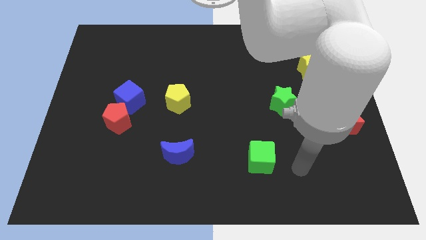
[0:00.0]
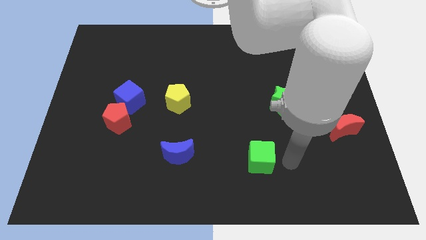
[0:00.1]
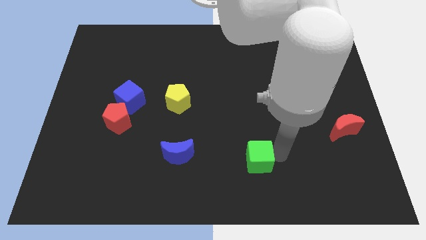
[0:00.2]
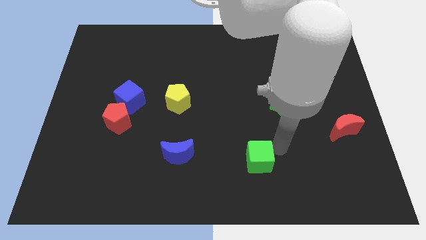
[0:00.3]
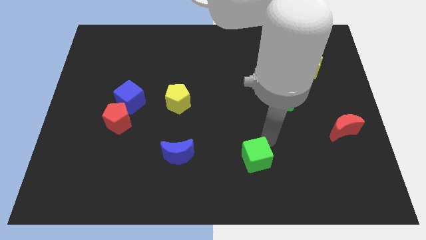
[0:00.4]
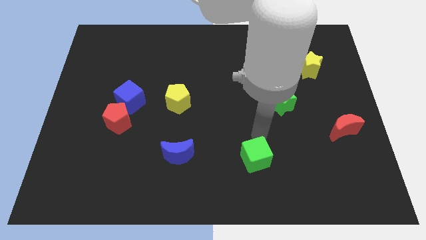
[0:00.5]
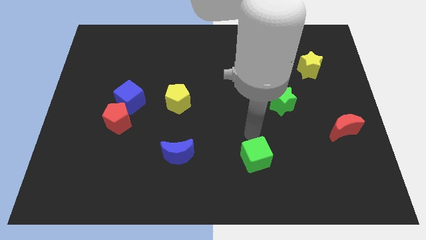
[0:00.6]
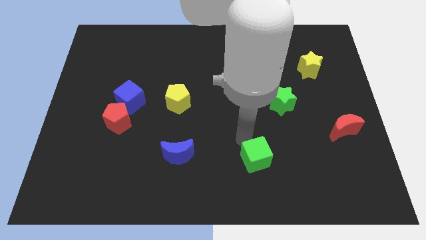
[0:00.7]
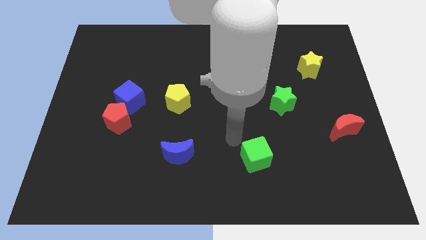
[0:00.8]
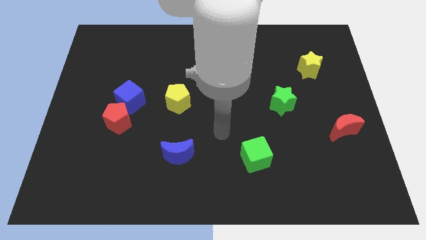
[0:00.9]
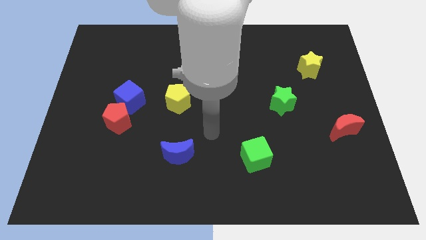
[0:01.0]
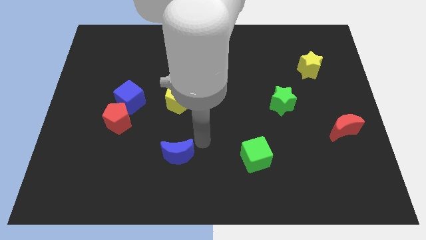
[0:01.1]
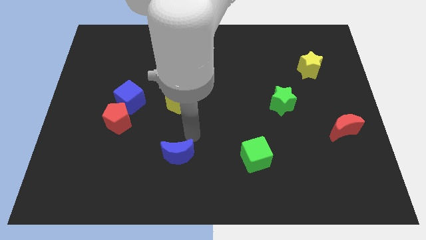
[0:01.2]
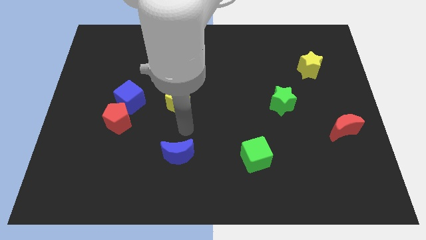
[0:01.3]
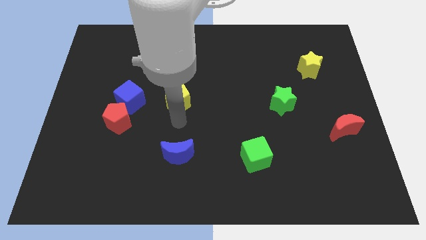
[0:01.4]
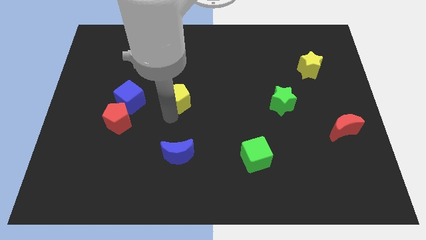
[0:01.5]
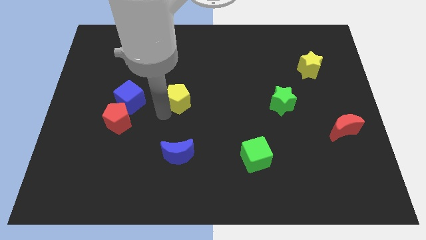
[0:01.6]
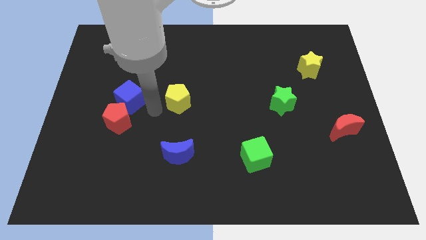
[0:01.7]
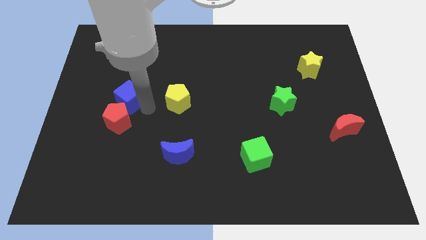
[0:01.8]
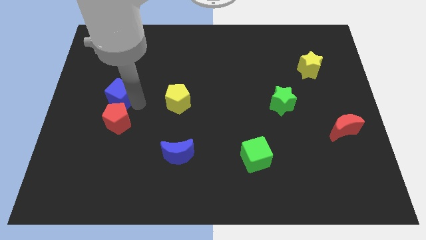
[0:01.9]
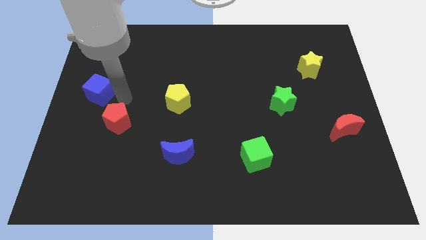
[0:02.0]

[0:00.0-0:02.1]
move the red pentagon away from the blue cube

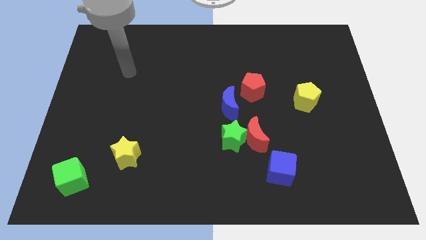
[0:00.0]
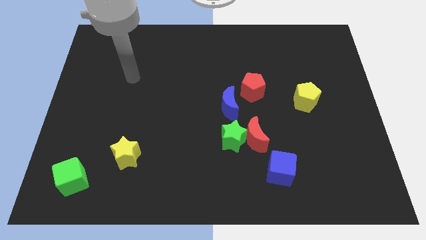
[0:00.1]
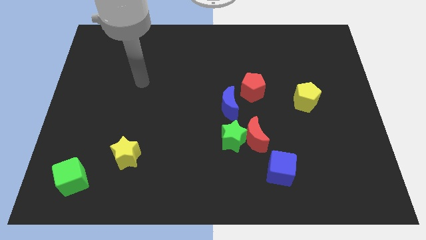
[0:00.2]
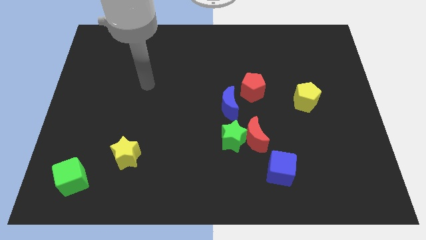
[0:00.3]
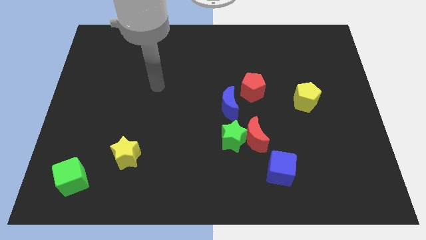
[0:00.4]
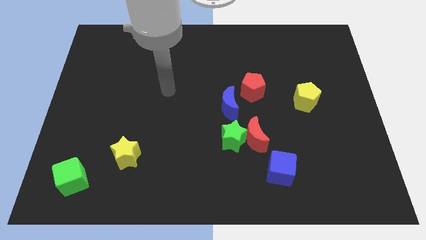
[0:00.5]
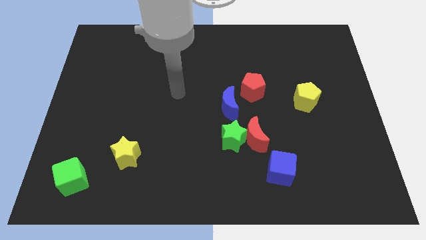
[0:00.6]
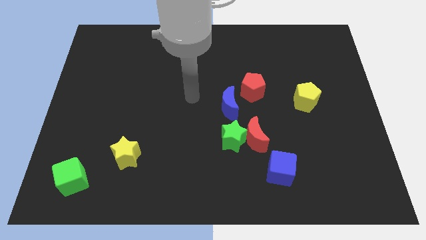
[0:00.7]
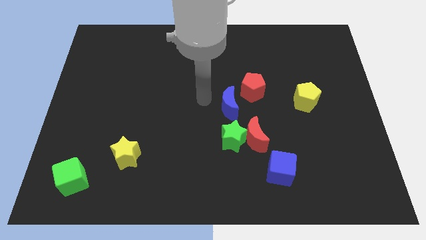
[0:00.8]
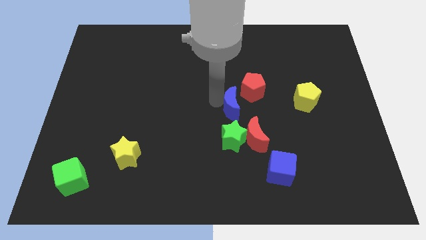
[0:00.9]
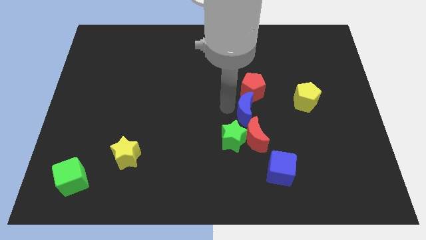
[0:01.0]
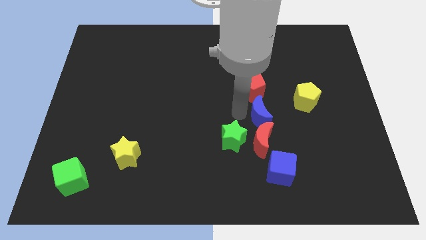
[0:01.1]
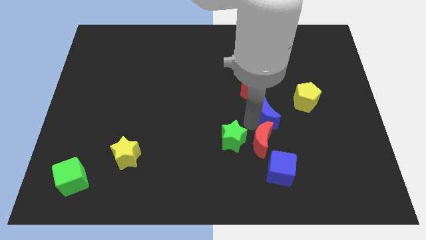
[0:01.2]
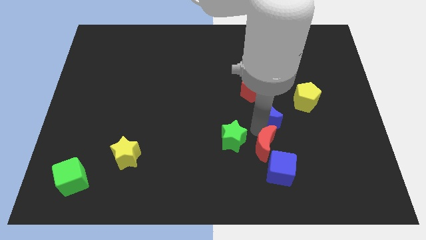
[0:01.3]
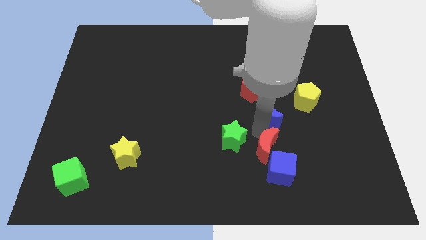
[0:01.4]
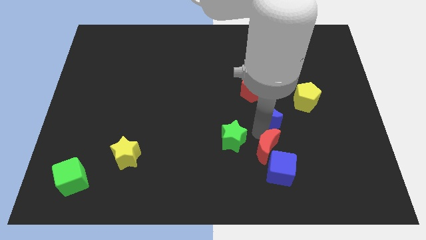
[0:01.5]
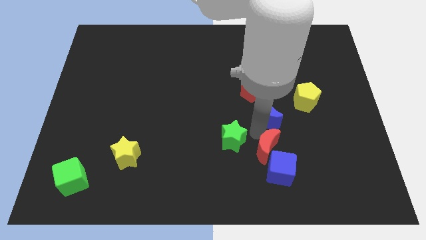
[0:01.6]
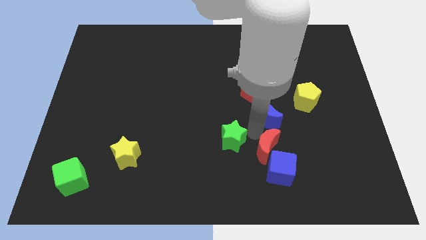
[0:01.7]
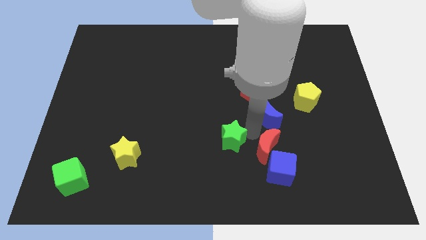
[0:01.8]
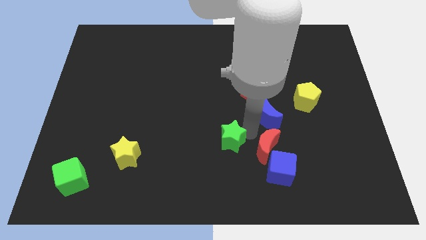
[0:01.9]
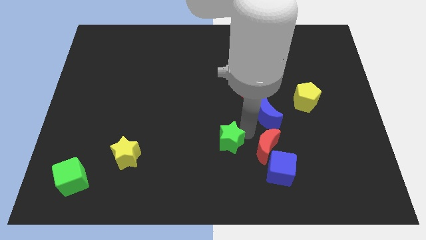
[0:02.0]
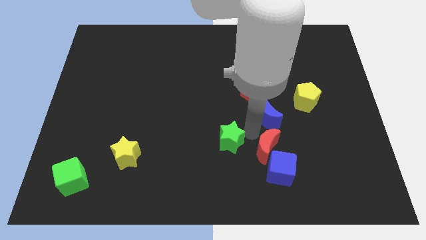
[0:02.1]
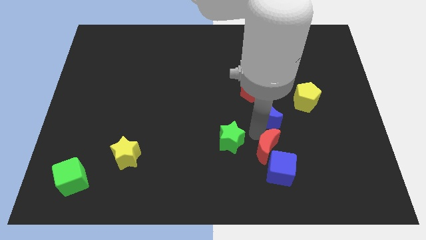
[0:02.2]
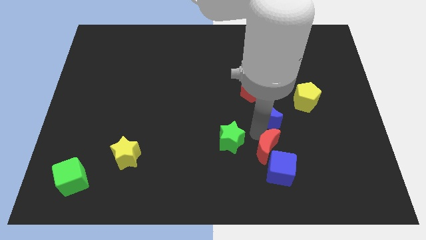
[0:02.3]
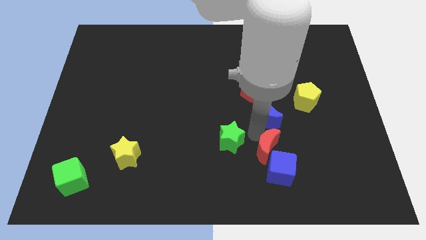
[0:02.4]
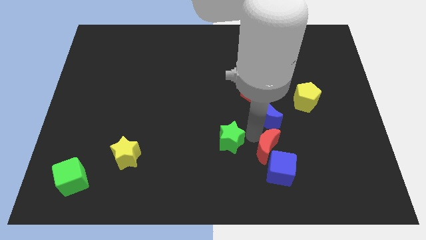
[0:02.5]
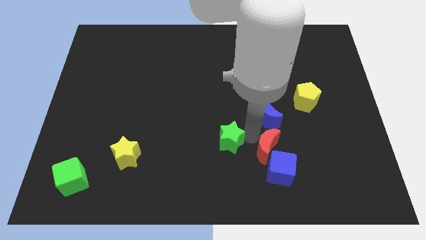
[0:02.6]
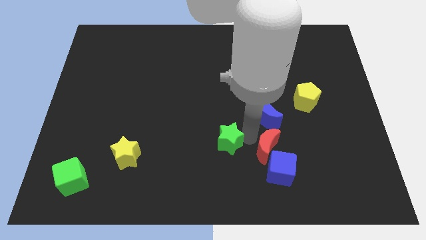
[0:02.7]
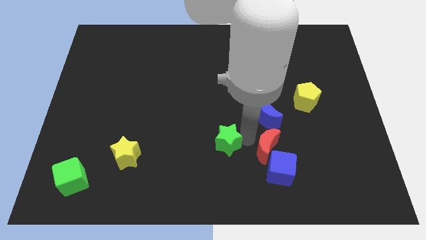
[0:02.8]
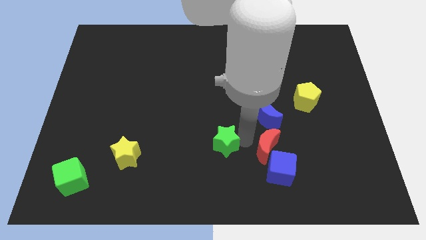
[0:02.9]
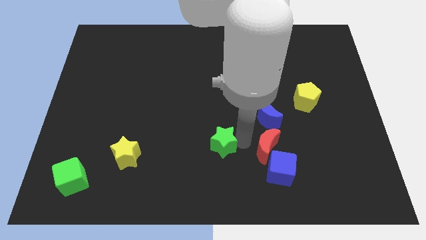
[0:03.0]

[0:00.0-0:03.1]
pull the green star apart from the red moon and blue moon

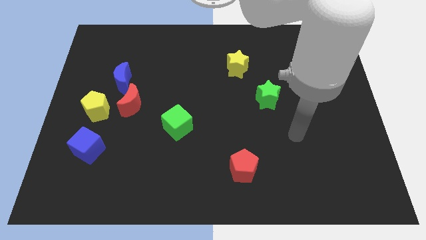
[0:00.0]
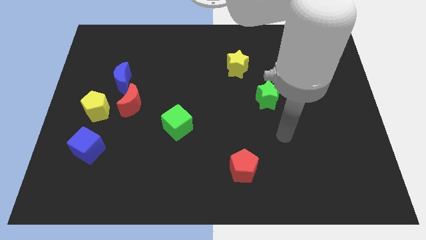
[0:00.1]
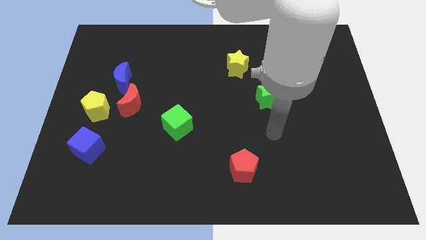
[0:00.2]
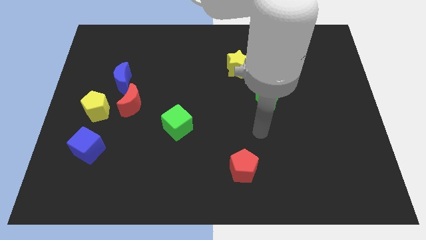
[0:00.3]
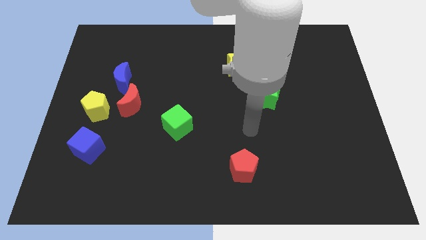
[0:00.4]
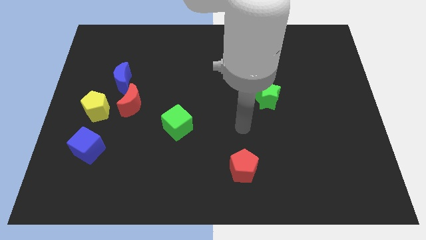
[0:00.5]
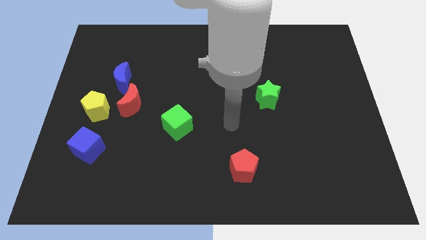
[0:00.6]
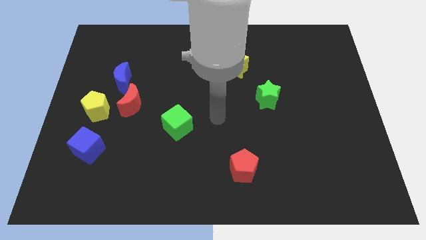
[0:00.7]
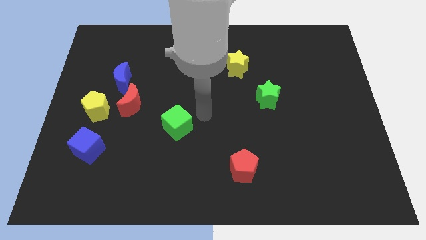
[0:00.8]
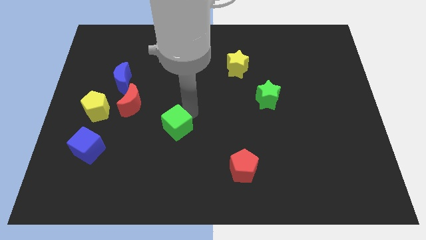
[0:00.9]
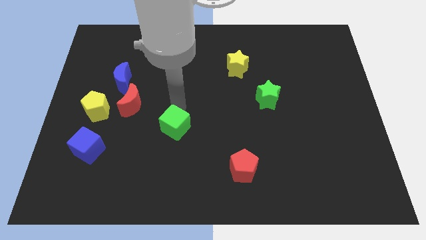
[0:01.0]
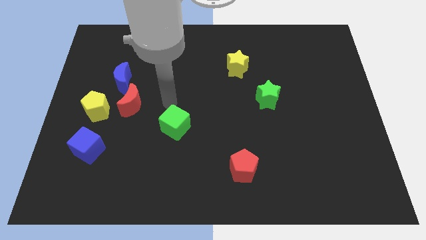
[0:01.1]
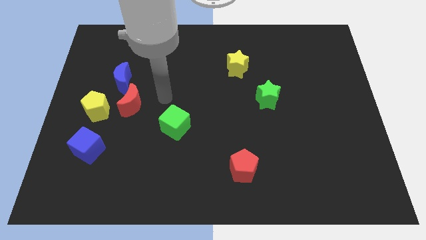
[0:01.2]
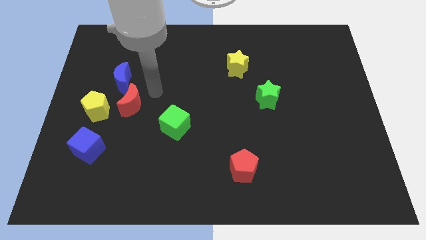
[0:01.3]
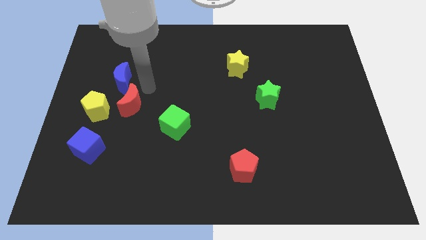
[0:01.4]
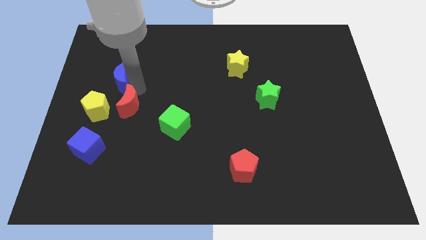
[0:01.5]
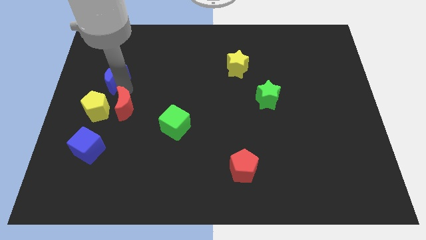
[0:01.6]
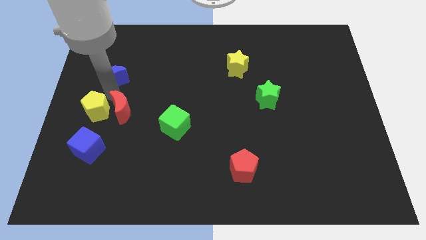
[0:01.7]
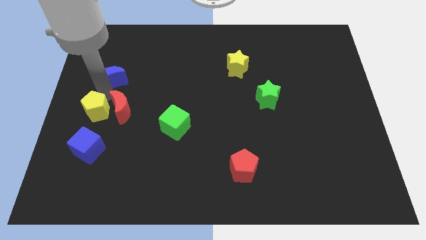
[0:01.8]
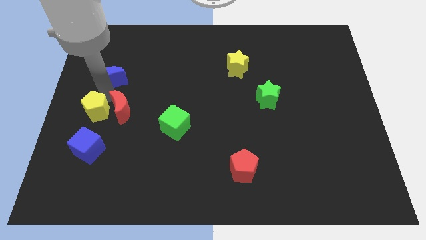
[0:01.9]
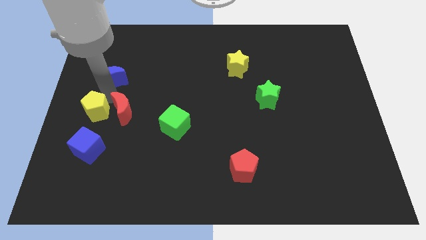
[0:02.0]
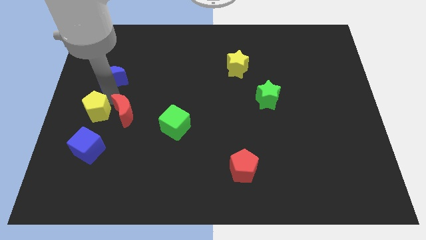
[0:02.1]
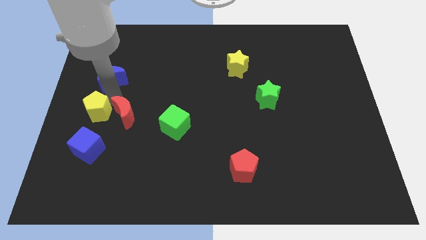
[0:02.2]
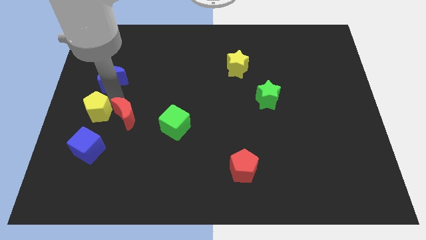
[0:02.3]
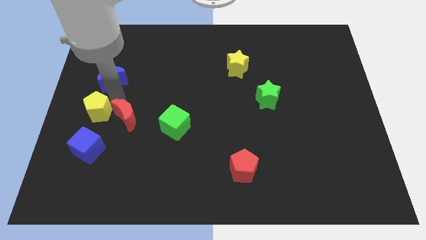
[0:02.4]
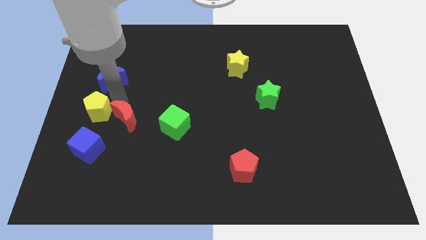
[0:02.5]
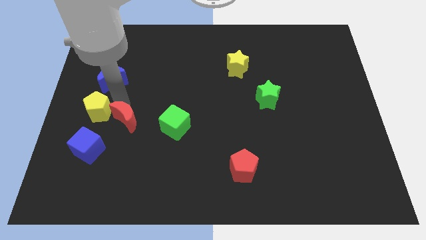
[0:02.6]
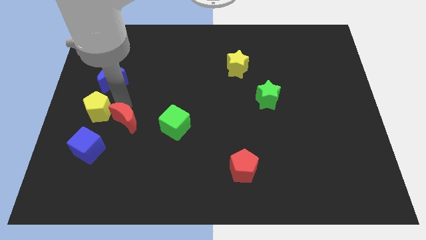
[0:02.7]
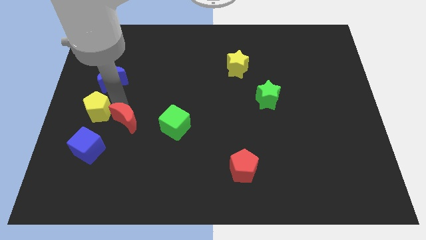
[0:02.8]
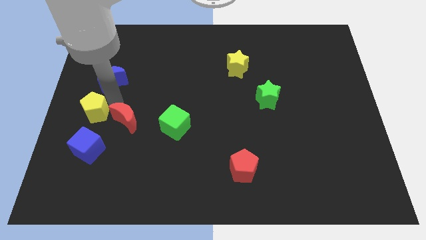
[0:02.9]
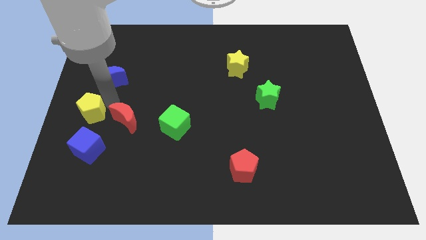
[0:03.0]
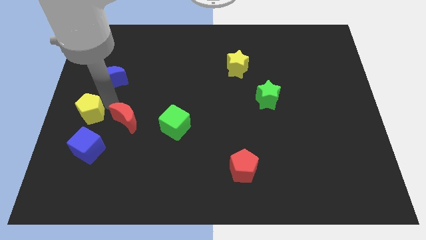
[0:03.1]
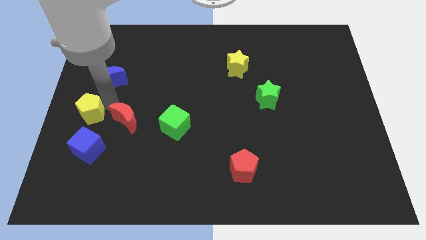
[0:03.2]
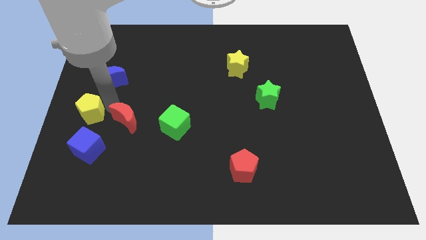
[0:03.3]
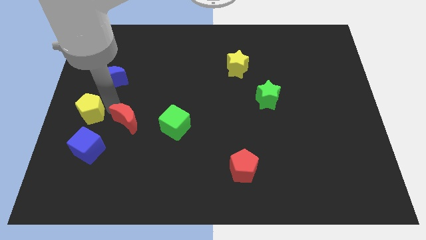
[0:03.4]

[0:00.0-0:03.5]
move the red moon away from the blue moon and yellow pentagon

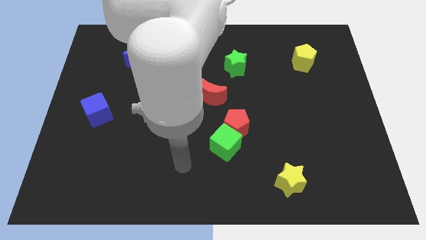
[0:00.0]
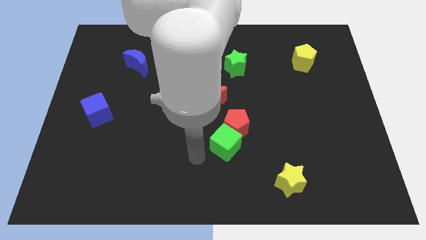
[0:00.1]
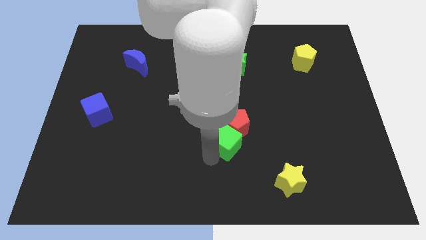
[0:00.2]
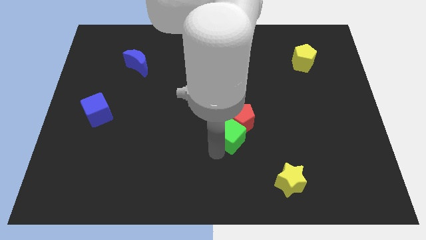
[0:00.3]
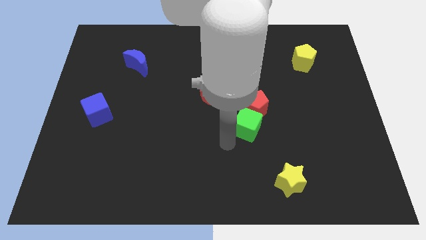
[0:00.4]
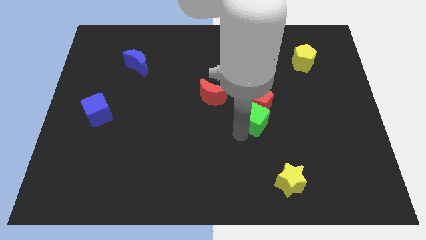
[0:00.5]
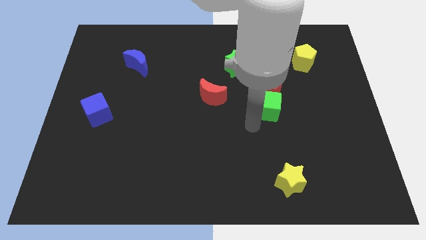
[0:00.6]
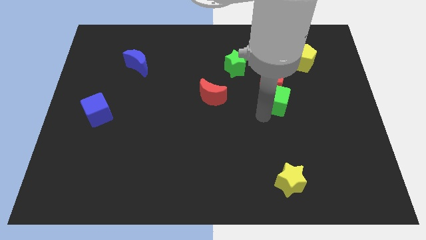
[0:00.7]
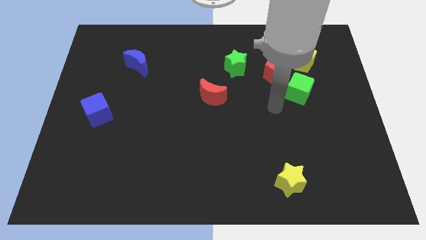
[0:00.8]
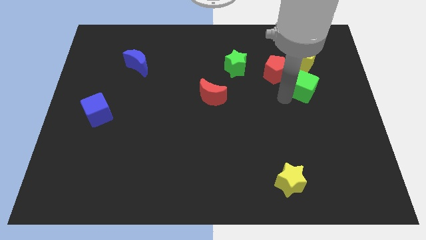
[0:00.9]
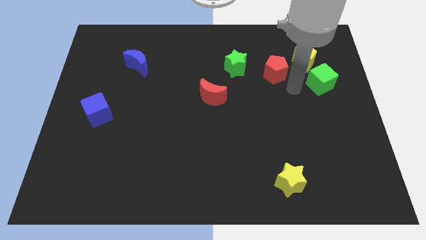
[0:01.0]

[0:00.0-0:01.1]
separate the red pentagon from the green cube
